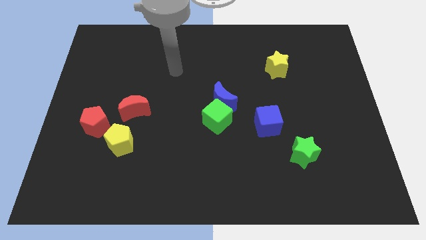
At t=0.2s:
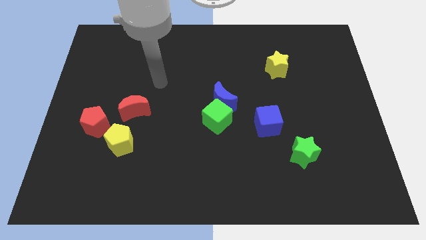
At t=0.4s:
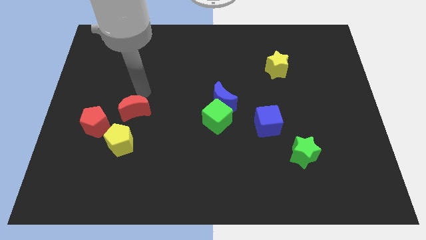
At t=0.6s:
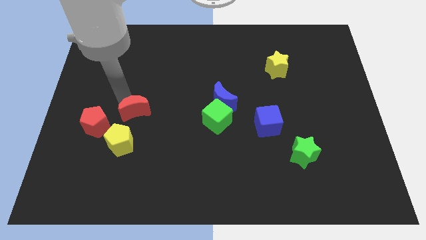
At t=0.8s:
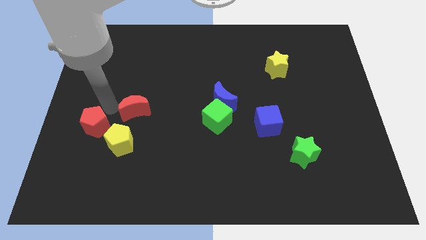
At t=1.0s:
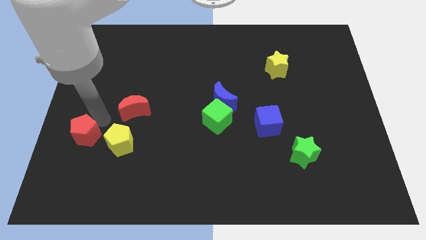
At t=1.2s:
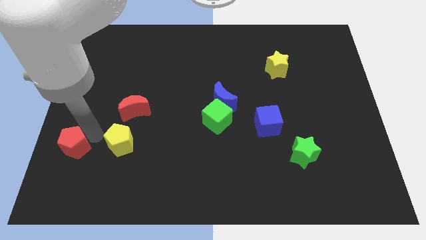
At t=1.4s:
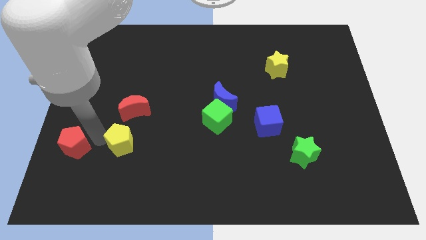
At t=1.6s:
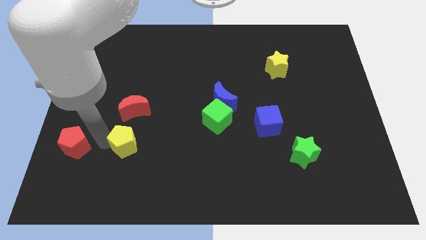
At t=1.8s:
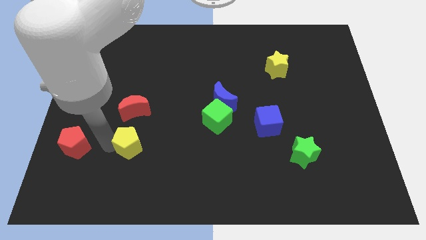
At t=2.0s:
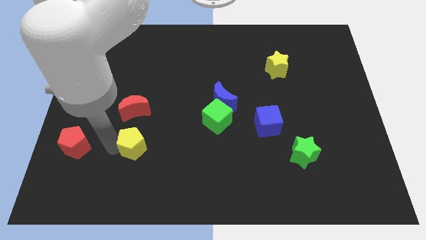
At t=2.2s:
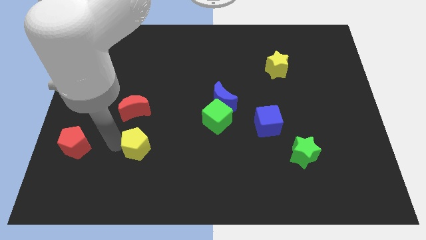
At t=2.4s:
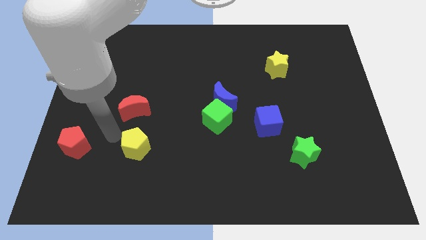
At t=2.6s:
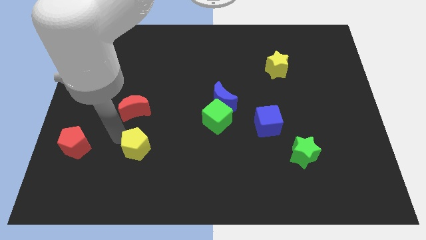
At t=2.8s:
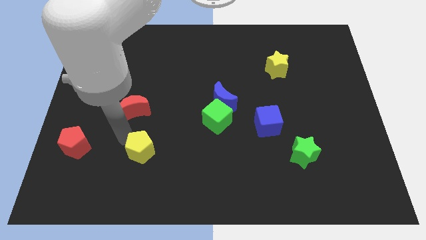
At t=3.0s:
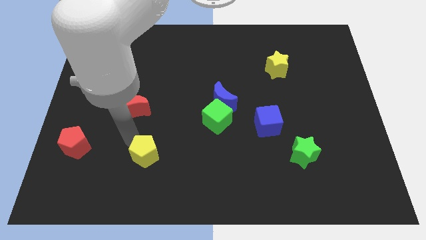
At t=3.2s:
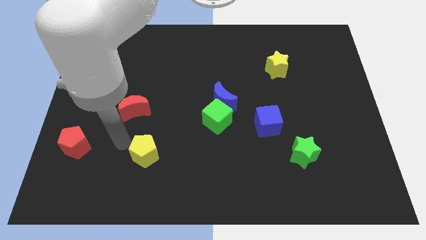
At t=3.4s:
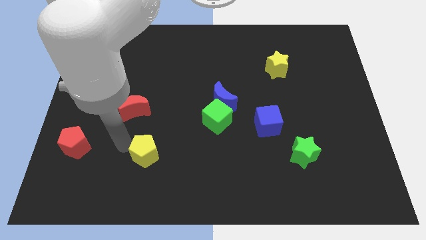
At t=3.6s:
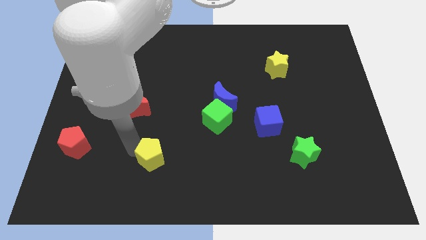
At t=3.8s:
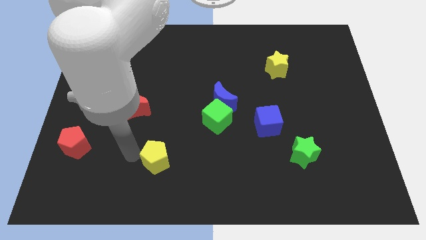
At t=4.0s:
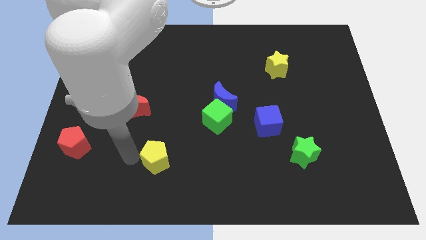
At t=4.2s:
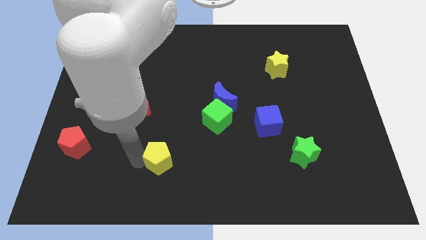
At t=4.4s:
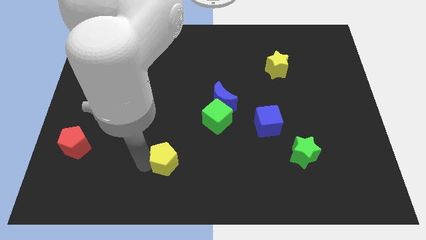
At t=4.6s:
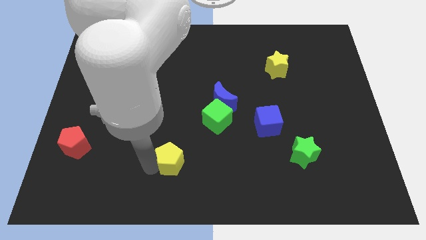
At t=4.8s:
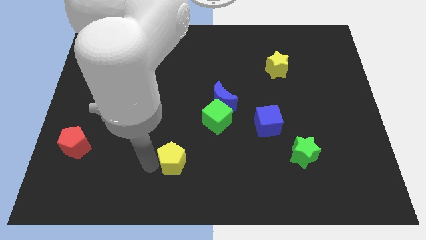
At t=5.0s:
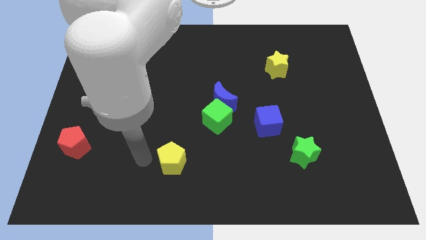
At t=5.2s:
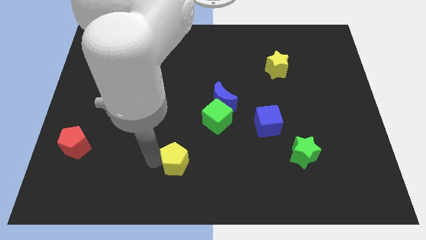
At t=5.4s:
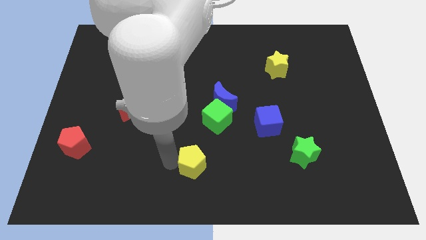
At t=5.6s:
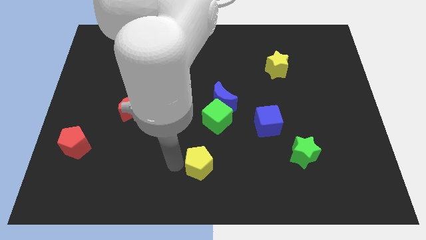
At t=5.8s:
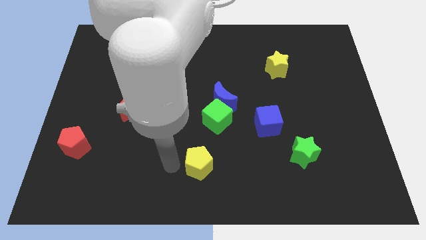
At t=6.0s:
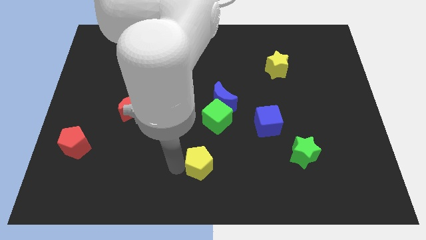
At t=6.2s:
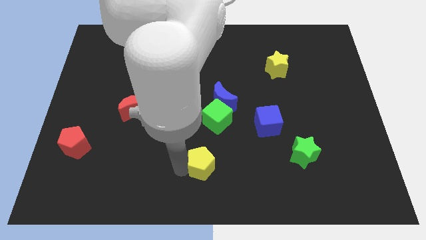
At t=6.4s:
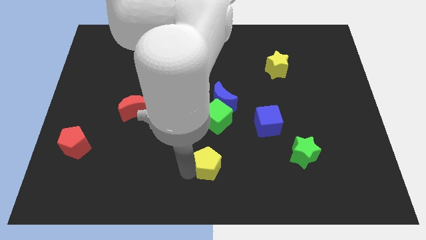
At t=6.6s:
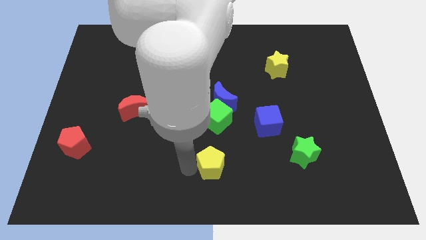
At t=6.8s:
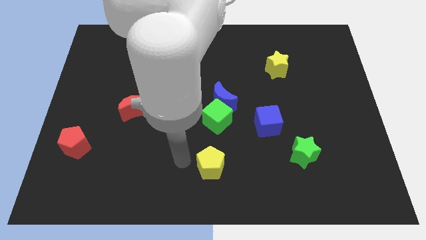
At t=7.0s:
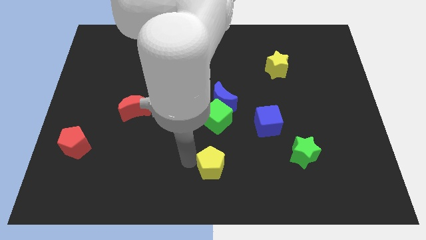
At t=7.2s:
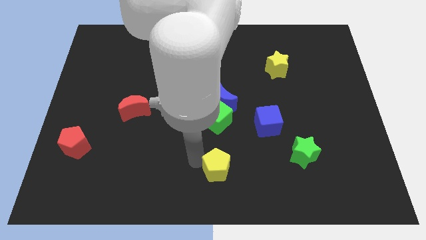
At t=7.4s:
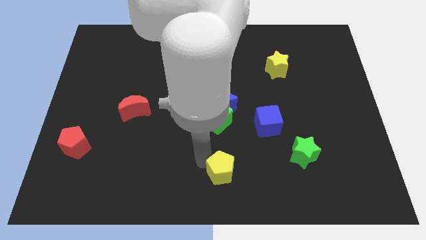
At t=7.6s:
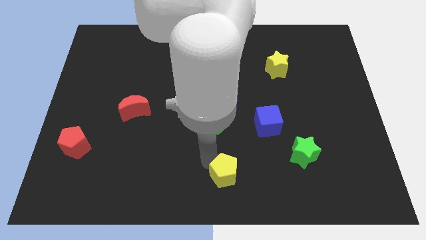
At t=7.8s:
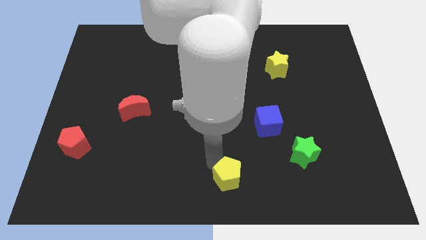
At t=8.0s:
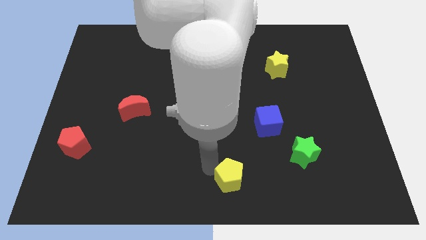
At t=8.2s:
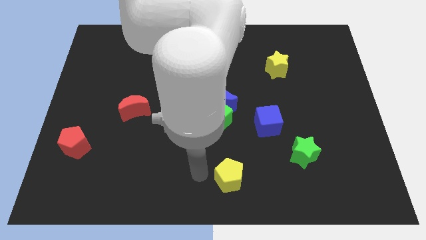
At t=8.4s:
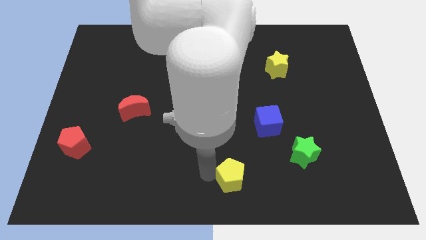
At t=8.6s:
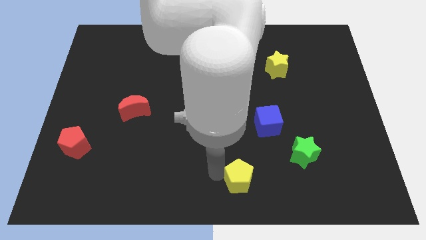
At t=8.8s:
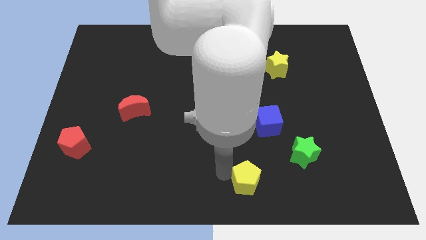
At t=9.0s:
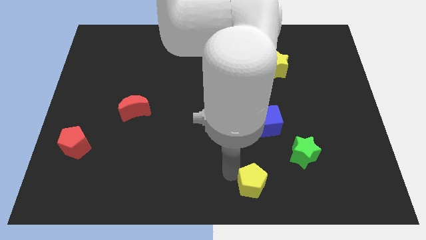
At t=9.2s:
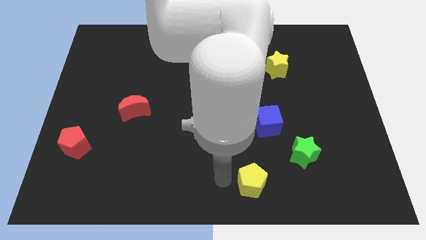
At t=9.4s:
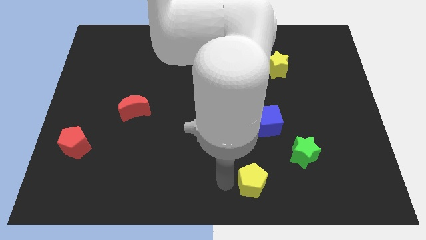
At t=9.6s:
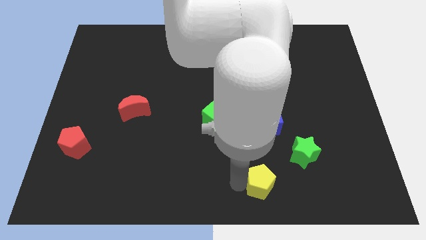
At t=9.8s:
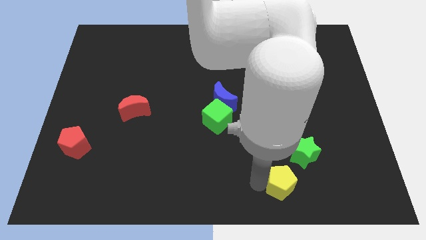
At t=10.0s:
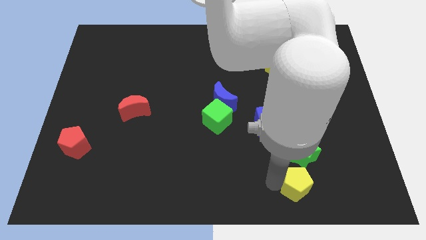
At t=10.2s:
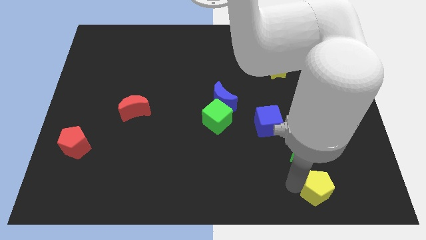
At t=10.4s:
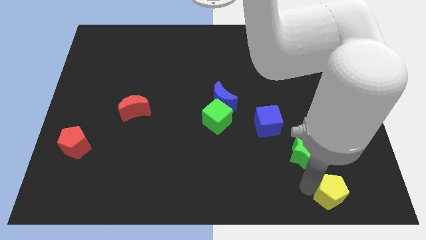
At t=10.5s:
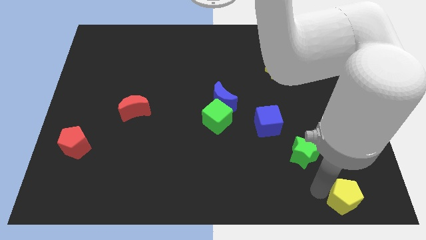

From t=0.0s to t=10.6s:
put the yellow pentagon to the lower right corner

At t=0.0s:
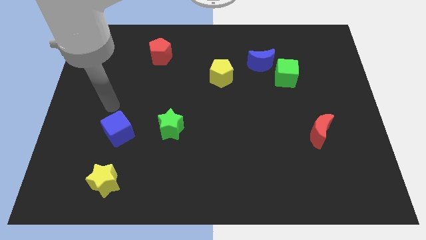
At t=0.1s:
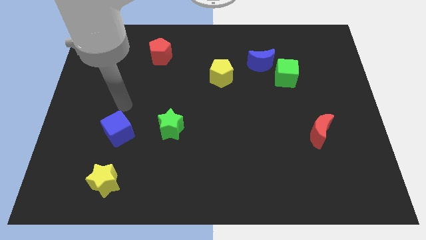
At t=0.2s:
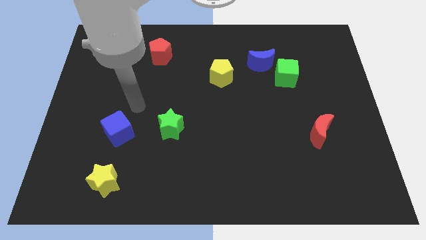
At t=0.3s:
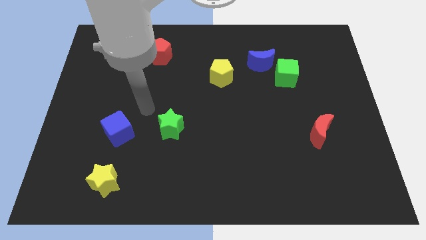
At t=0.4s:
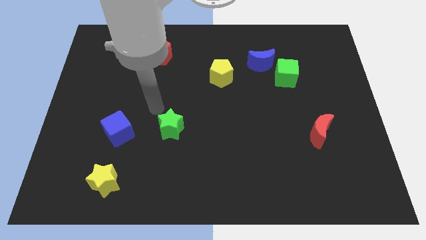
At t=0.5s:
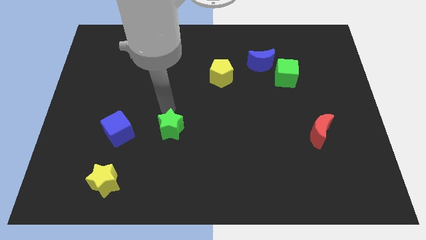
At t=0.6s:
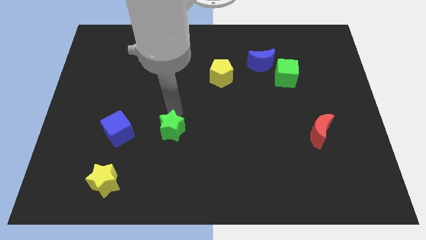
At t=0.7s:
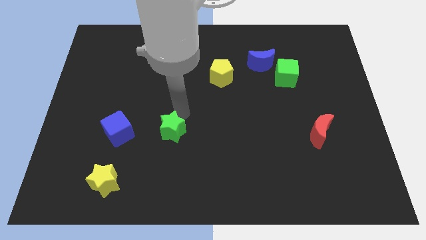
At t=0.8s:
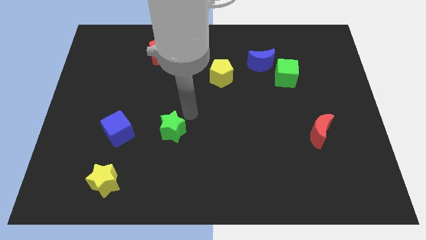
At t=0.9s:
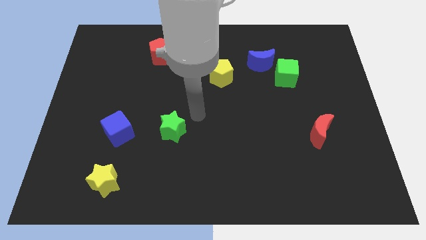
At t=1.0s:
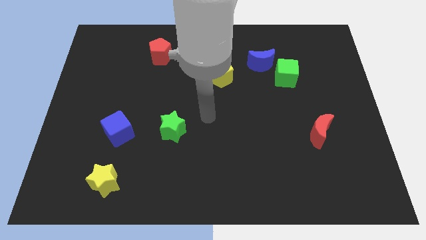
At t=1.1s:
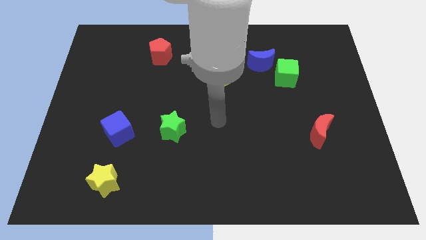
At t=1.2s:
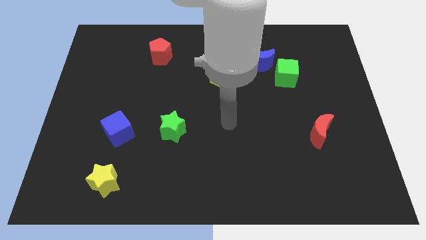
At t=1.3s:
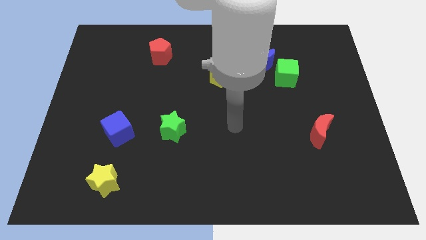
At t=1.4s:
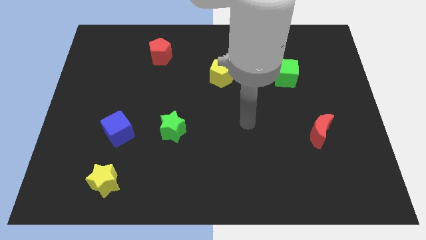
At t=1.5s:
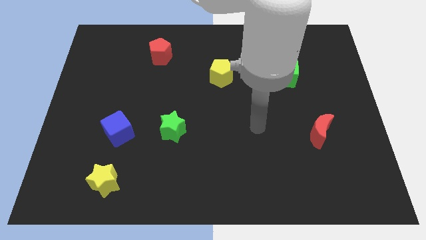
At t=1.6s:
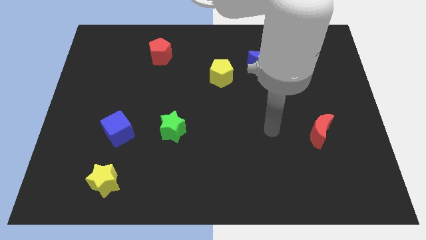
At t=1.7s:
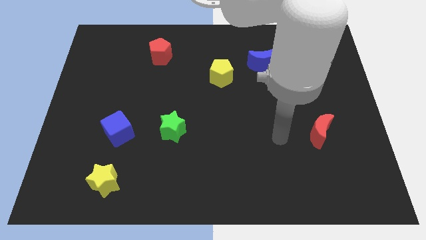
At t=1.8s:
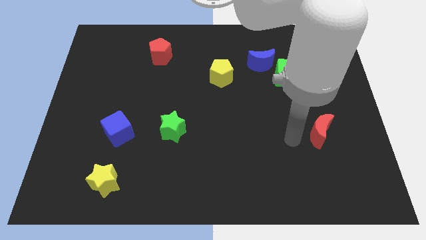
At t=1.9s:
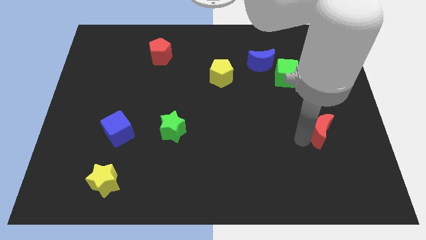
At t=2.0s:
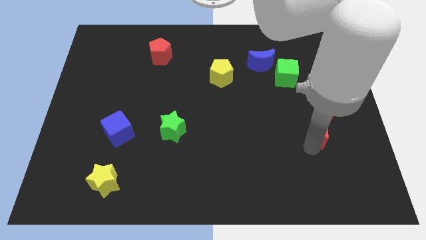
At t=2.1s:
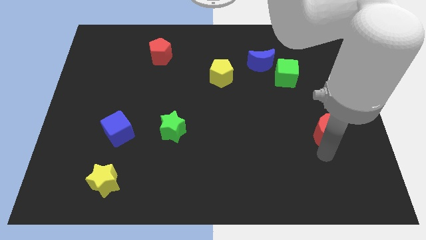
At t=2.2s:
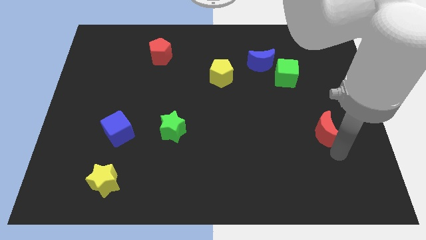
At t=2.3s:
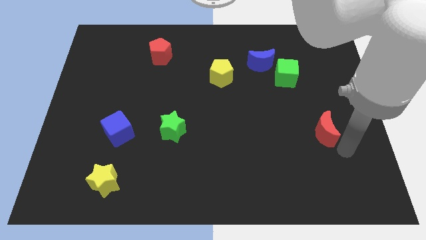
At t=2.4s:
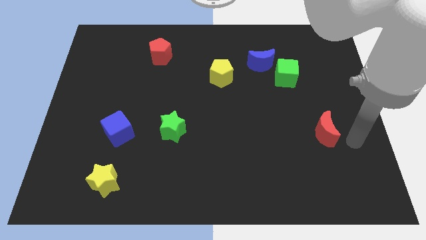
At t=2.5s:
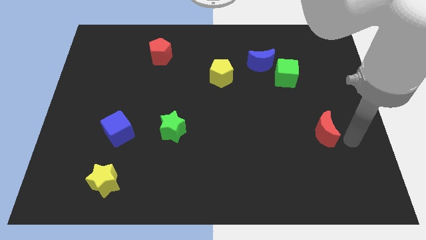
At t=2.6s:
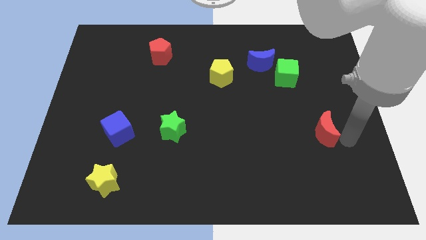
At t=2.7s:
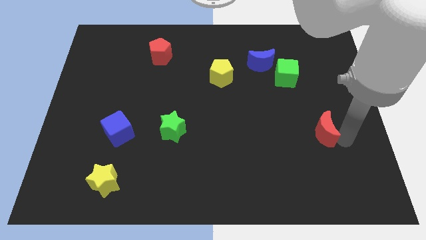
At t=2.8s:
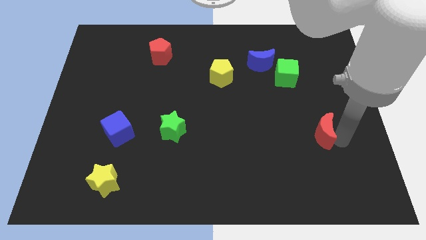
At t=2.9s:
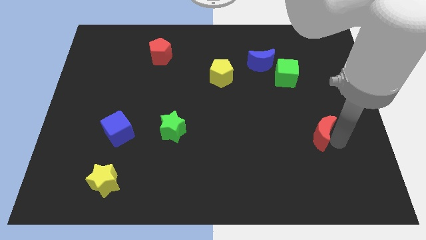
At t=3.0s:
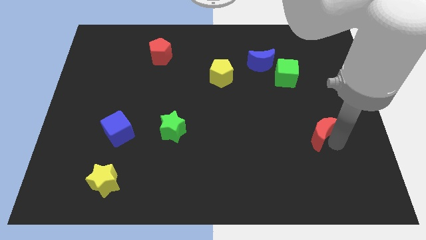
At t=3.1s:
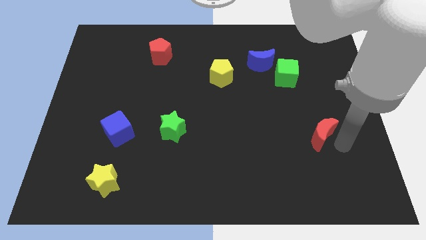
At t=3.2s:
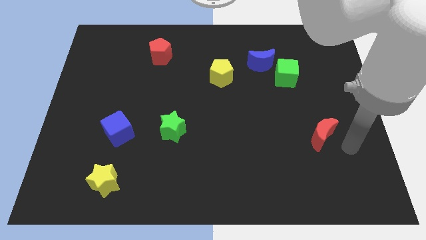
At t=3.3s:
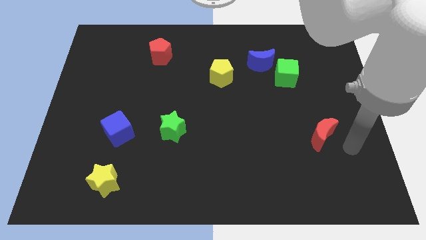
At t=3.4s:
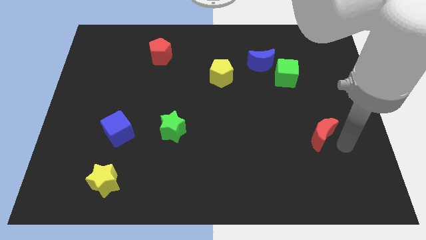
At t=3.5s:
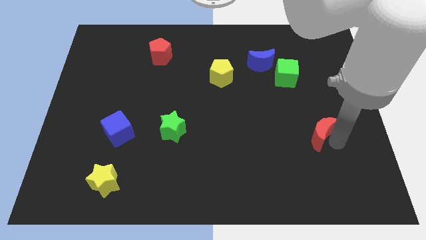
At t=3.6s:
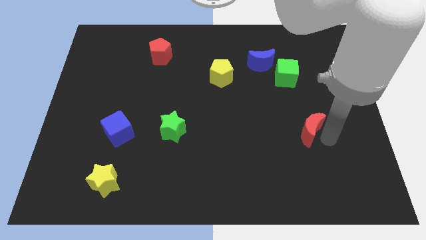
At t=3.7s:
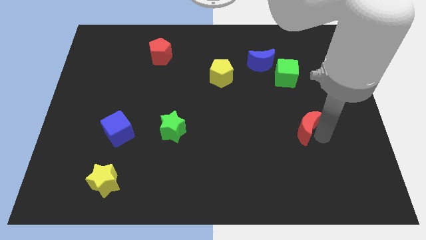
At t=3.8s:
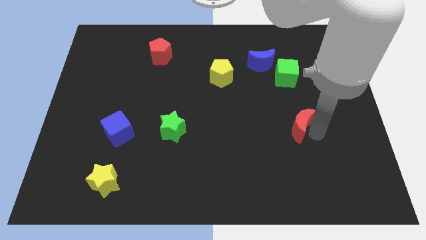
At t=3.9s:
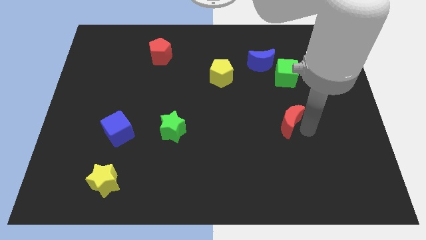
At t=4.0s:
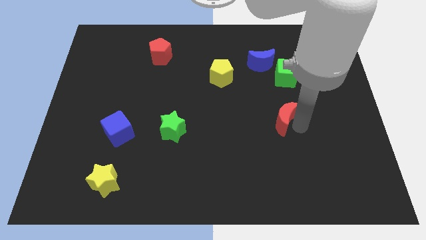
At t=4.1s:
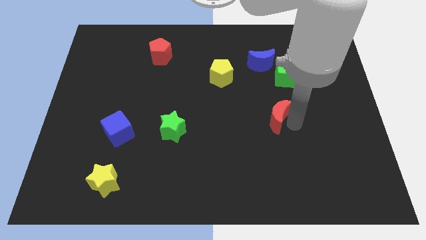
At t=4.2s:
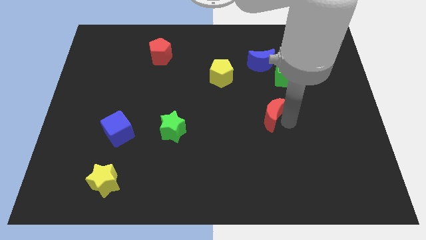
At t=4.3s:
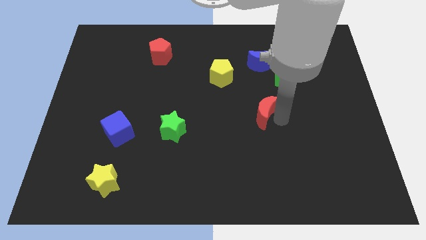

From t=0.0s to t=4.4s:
put the red moon to the center of the board
